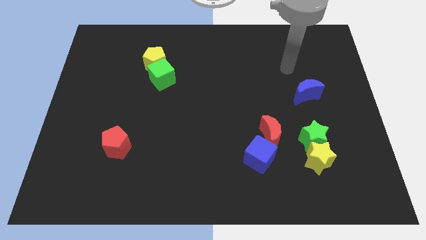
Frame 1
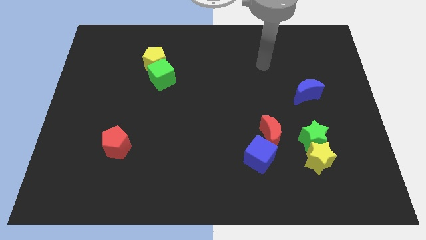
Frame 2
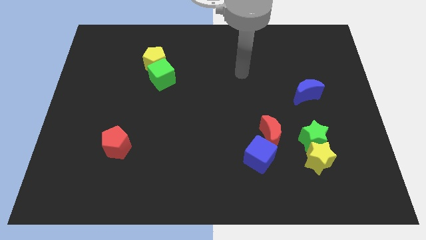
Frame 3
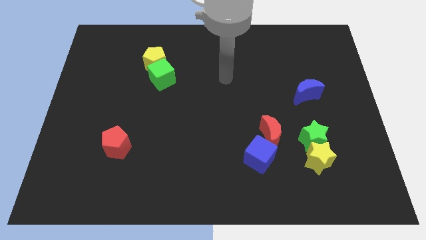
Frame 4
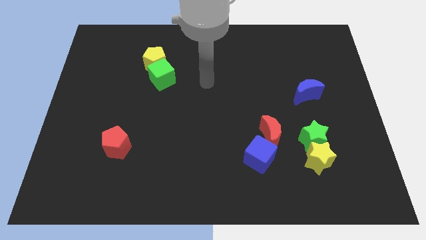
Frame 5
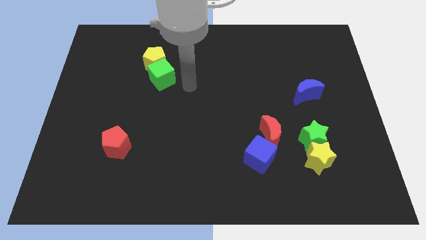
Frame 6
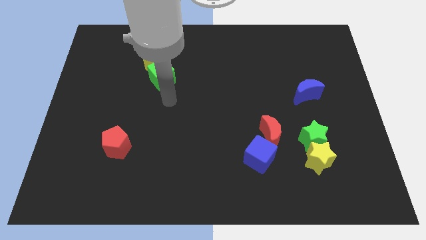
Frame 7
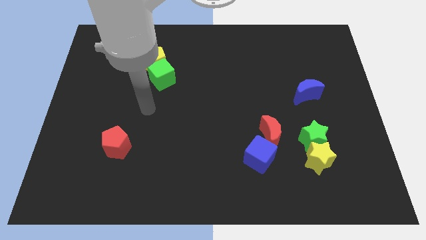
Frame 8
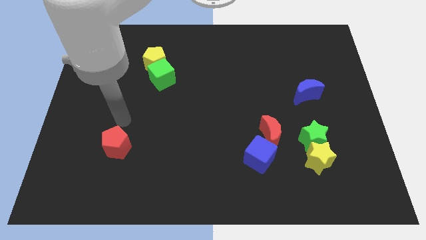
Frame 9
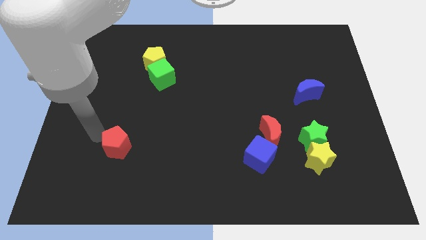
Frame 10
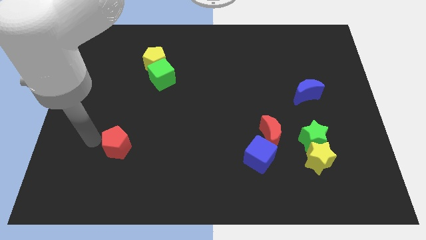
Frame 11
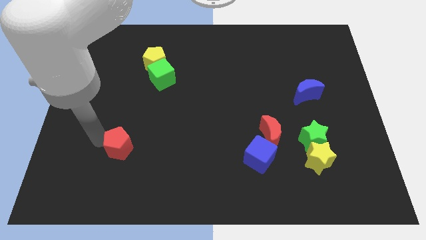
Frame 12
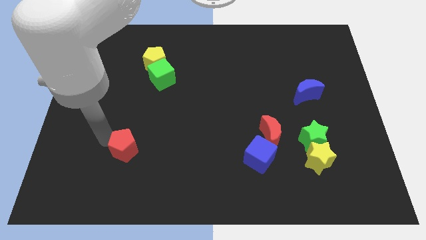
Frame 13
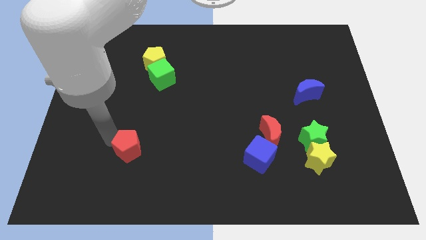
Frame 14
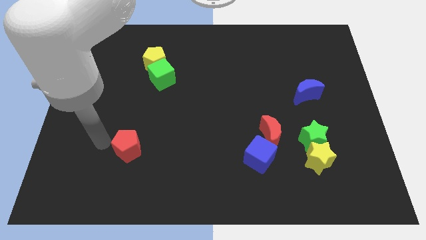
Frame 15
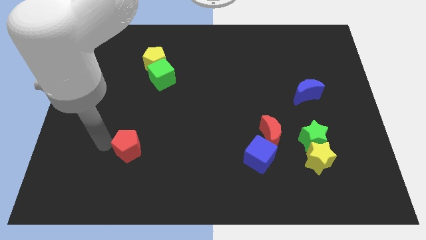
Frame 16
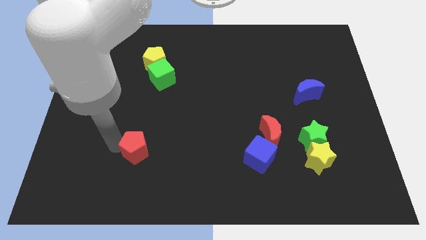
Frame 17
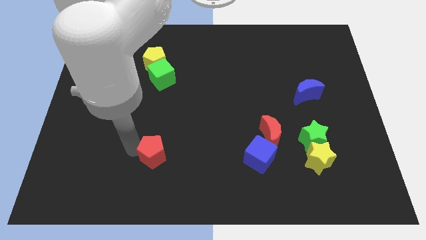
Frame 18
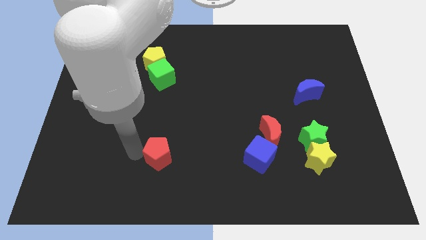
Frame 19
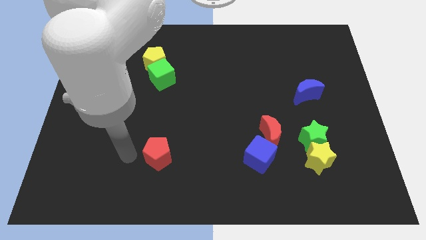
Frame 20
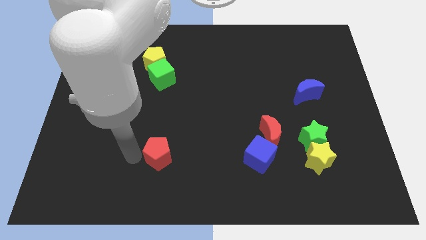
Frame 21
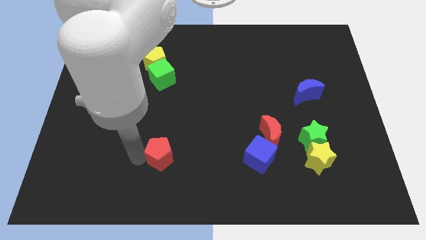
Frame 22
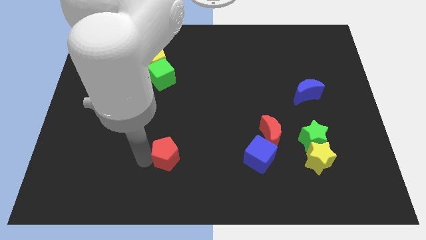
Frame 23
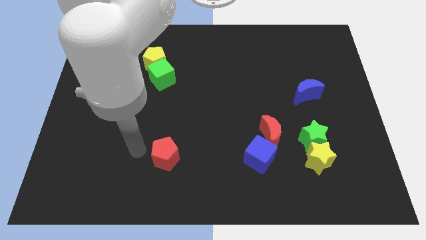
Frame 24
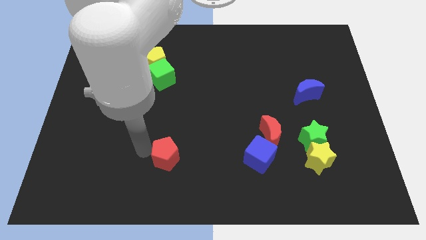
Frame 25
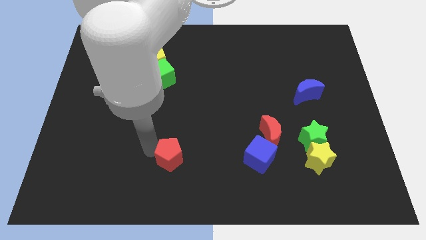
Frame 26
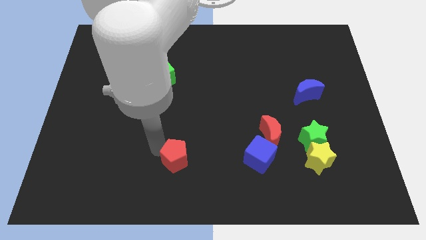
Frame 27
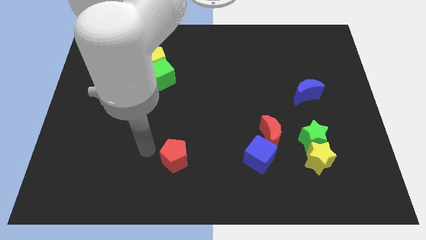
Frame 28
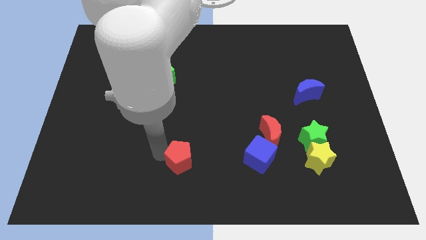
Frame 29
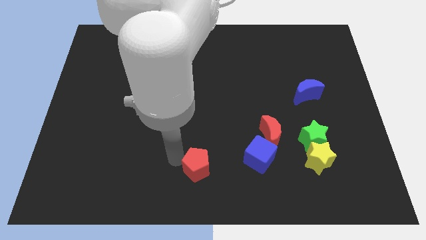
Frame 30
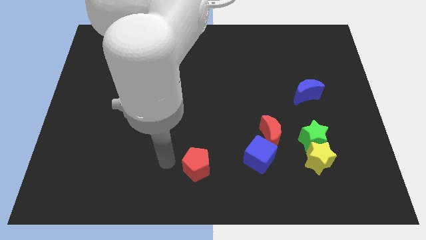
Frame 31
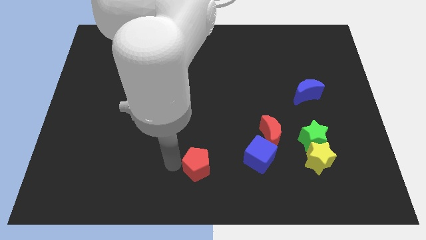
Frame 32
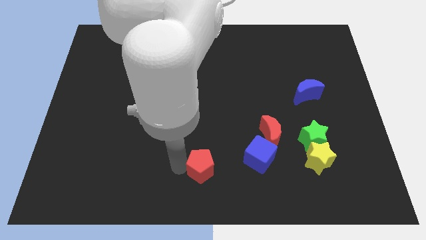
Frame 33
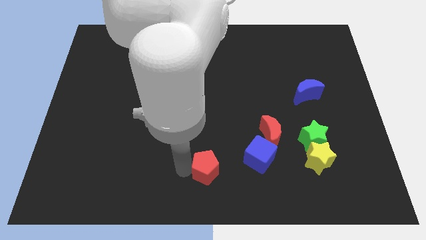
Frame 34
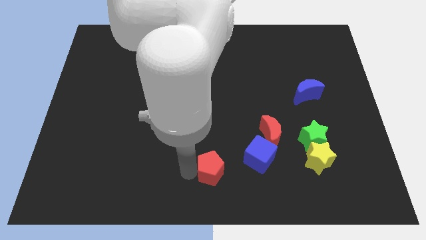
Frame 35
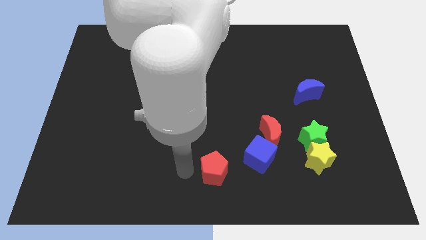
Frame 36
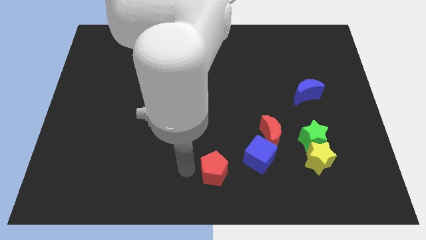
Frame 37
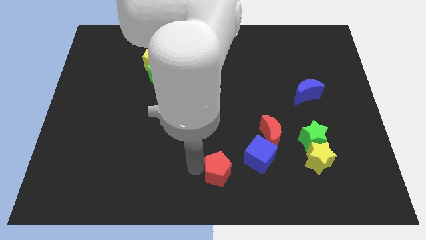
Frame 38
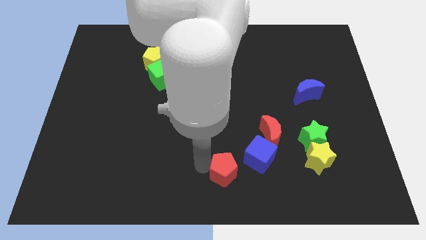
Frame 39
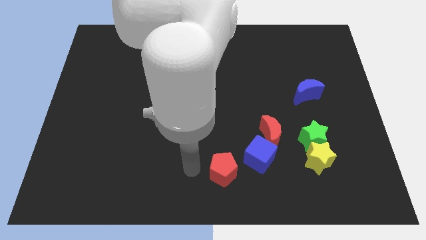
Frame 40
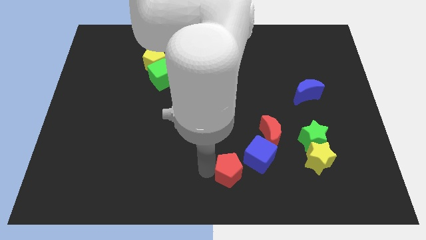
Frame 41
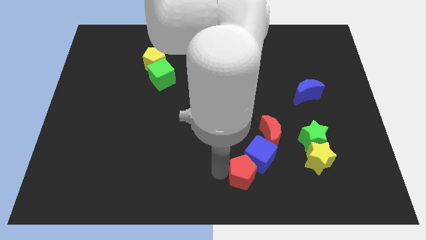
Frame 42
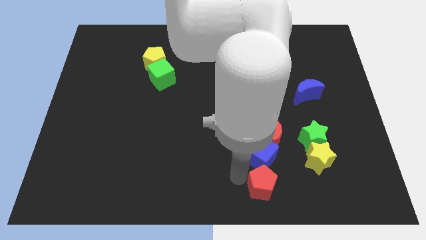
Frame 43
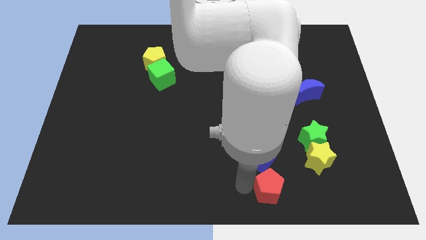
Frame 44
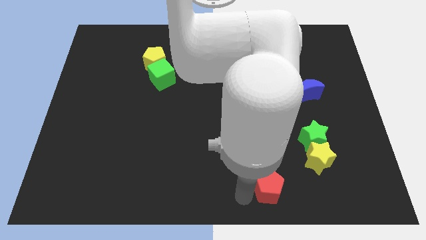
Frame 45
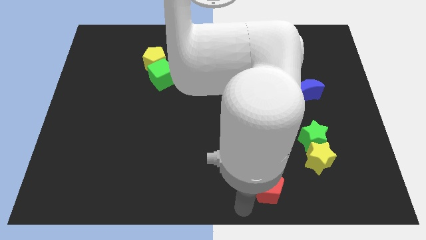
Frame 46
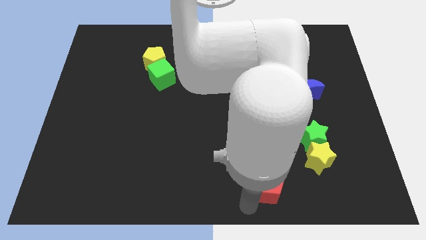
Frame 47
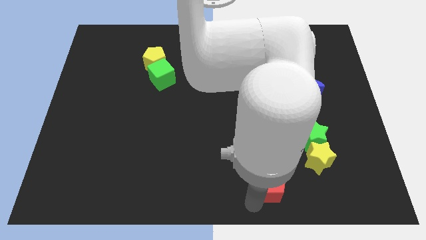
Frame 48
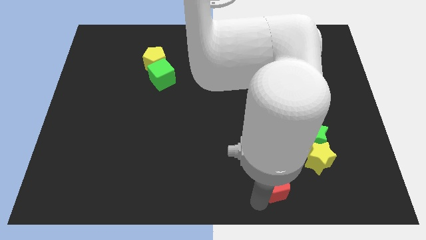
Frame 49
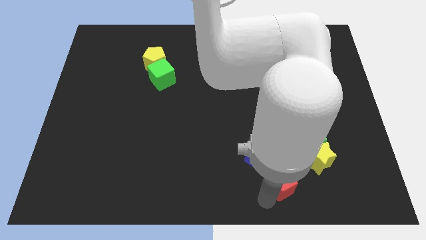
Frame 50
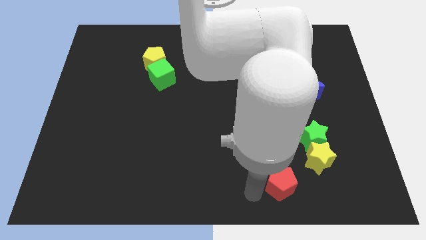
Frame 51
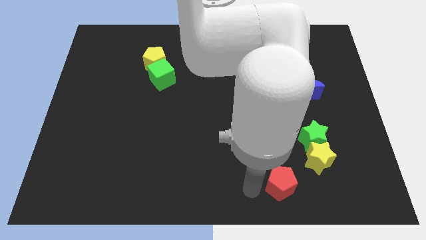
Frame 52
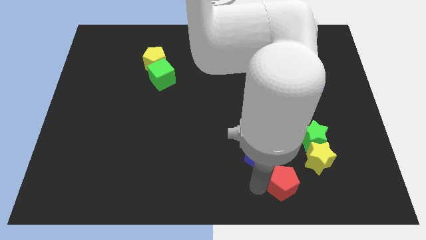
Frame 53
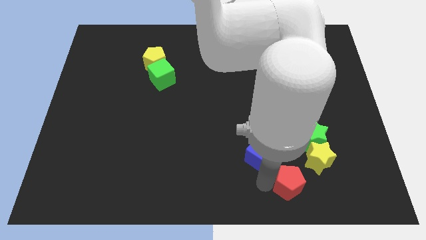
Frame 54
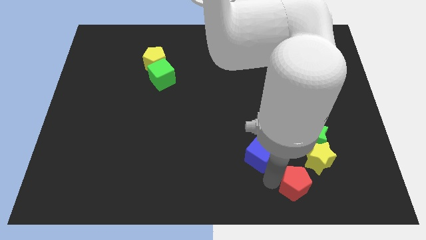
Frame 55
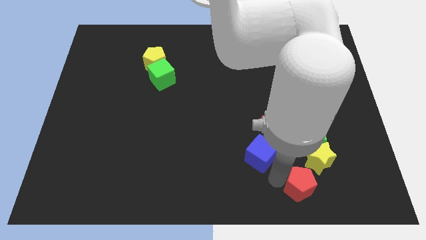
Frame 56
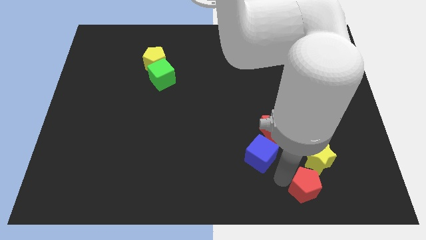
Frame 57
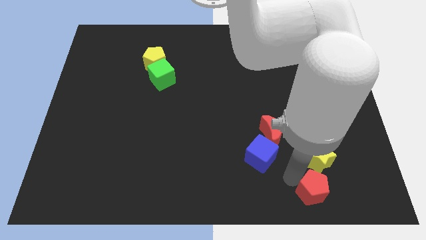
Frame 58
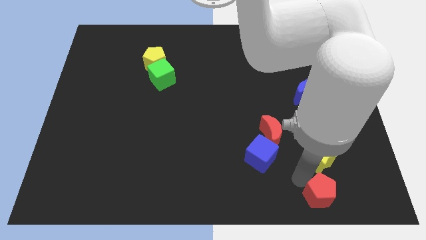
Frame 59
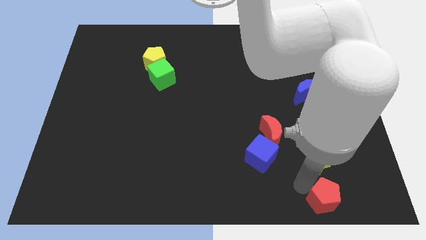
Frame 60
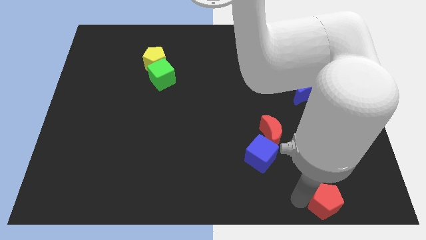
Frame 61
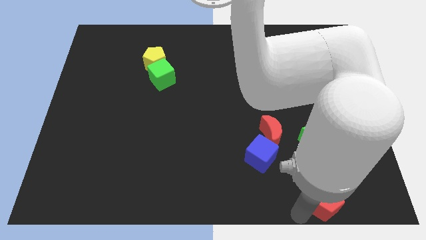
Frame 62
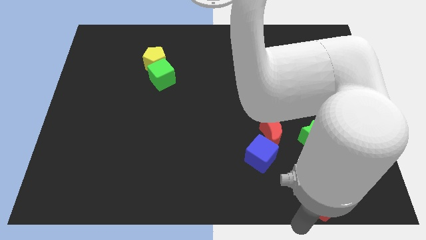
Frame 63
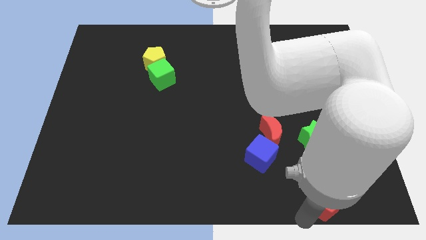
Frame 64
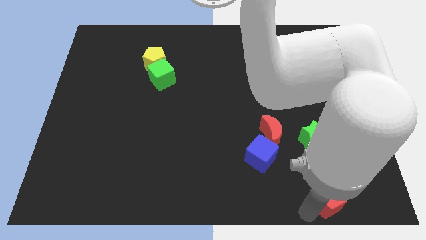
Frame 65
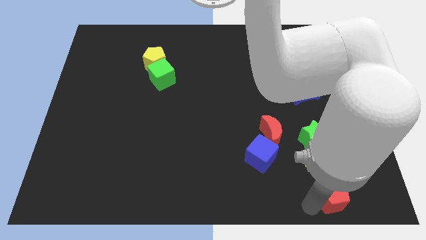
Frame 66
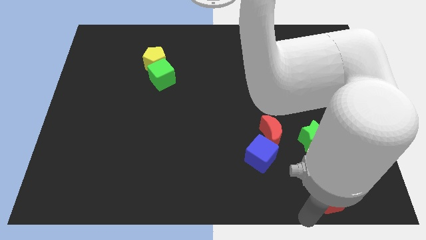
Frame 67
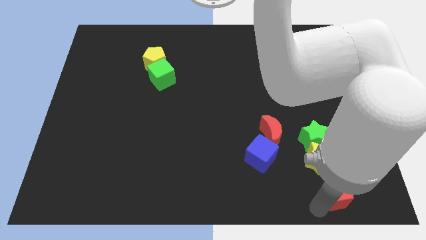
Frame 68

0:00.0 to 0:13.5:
slide the red pentagon diagonally down and to the right of the yellow star

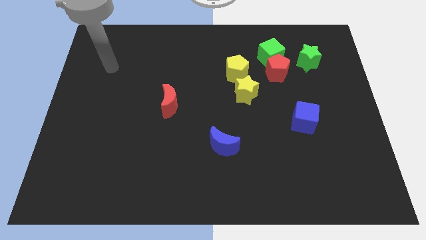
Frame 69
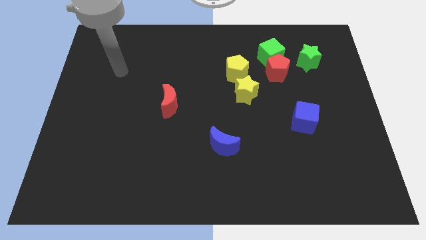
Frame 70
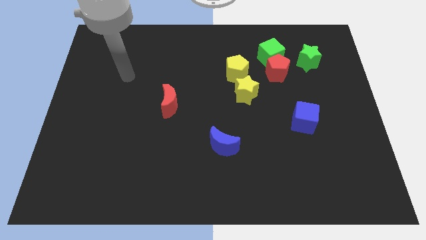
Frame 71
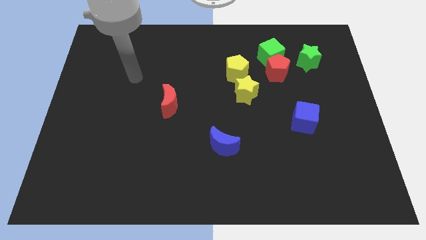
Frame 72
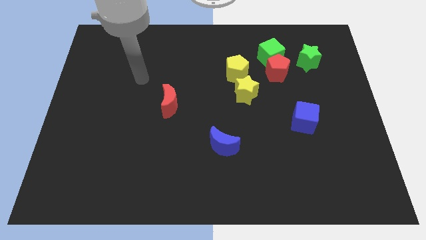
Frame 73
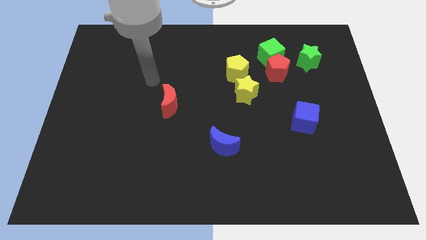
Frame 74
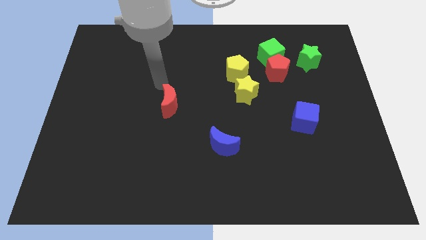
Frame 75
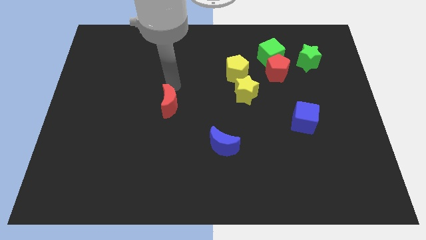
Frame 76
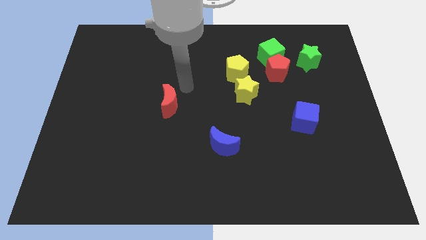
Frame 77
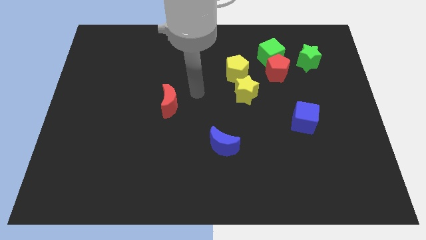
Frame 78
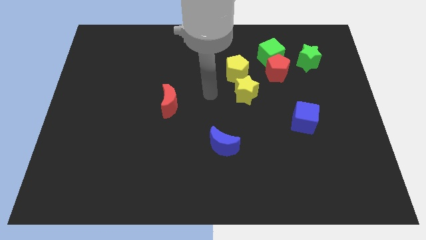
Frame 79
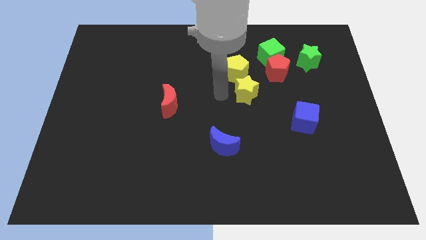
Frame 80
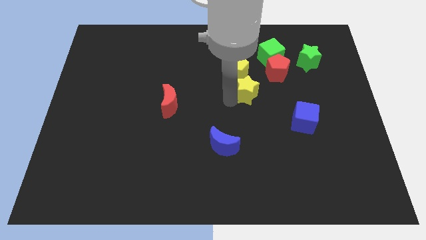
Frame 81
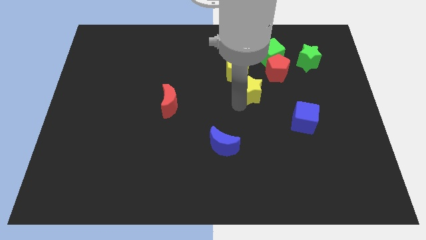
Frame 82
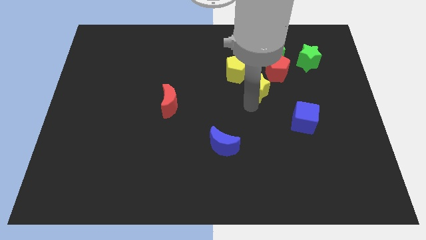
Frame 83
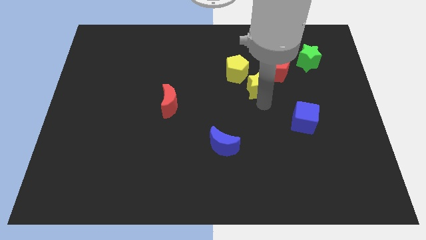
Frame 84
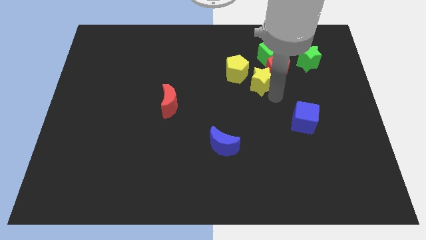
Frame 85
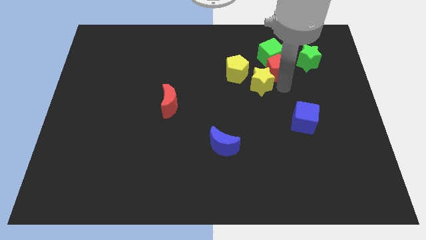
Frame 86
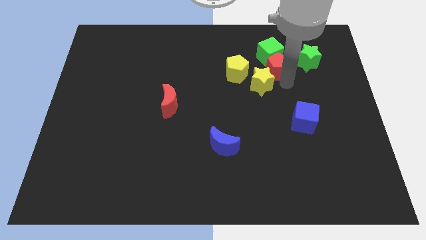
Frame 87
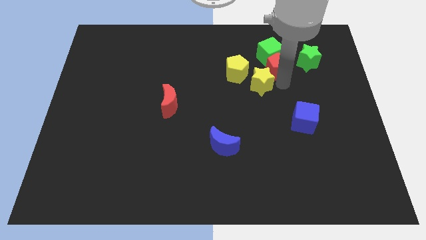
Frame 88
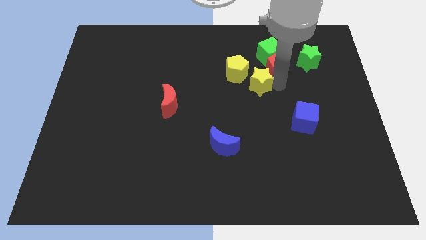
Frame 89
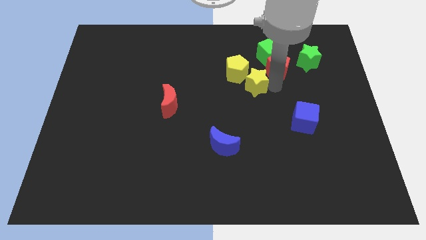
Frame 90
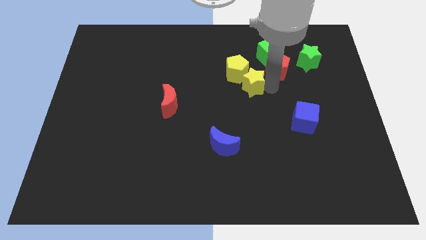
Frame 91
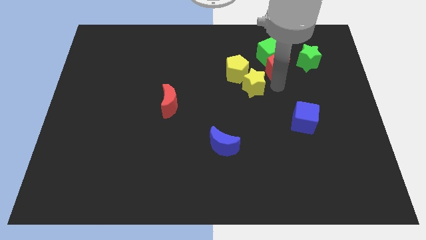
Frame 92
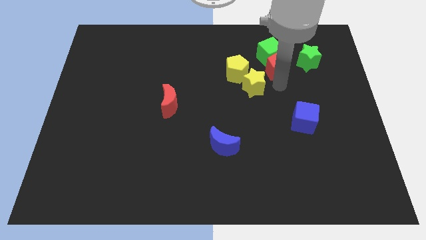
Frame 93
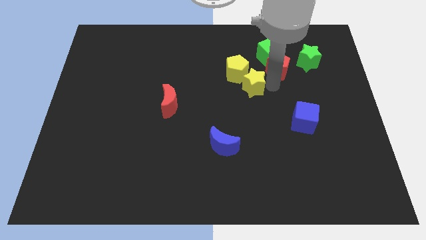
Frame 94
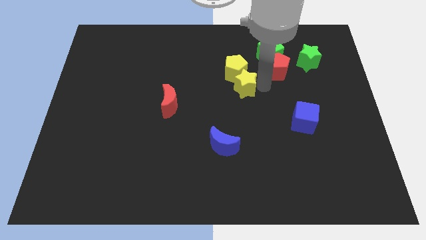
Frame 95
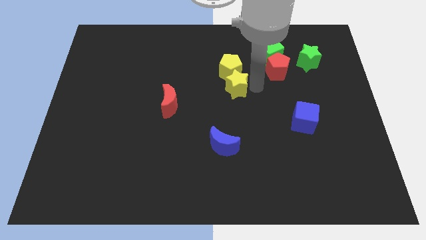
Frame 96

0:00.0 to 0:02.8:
put the yellow star diagonally down and to the left of the yellow pentagon
